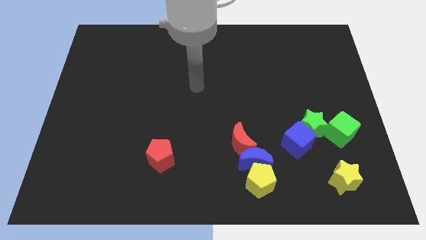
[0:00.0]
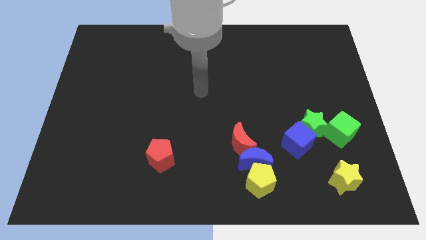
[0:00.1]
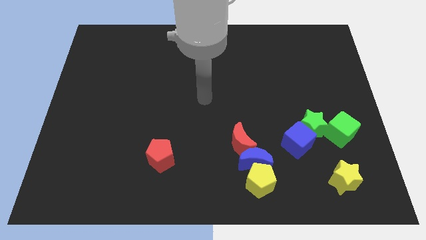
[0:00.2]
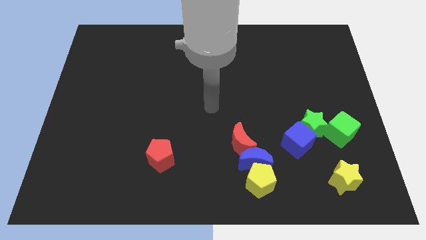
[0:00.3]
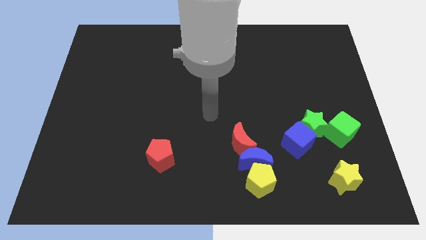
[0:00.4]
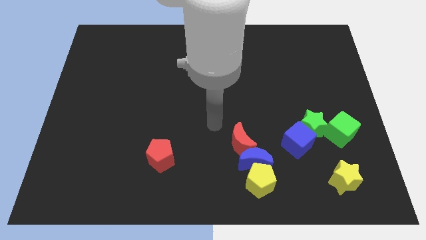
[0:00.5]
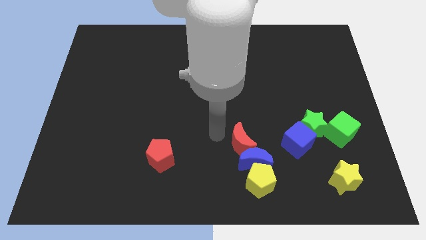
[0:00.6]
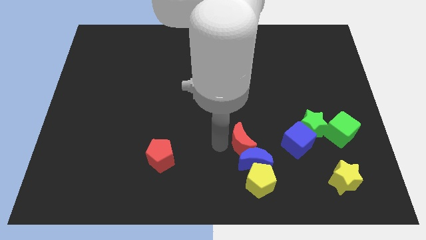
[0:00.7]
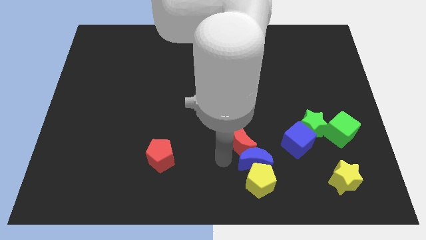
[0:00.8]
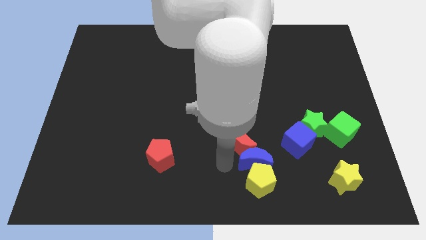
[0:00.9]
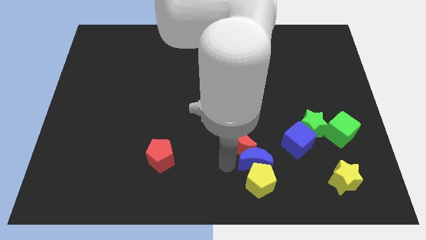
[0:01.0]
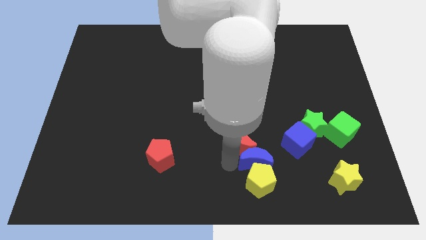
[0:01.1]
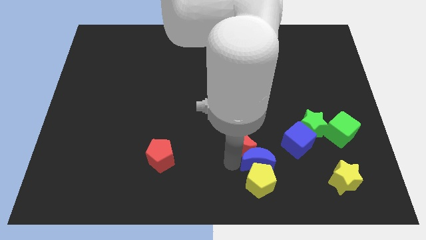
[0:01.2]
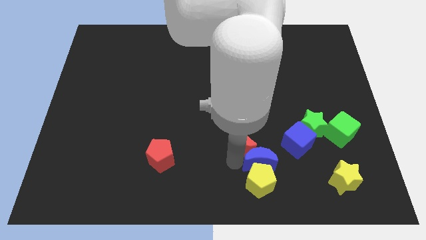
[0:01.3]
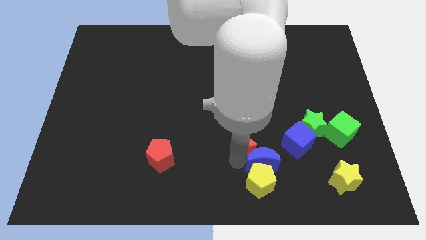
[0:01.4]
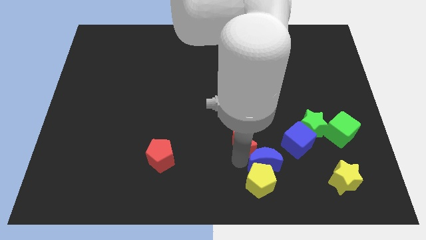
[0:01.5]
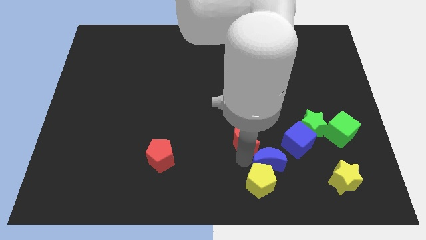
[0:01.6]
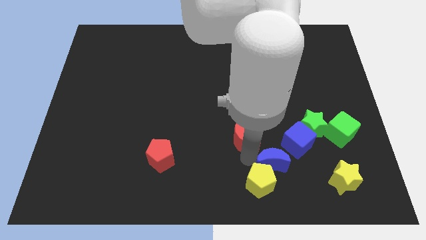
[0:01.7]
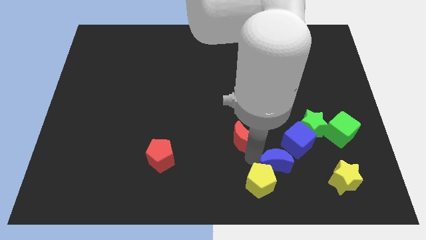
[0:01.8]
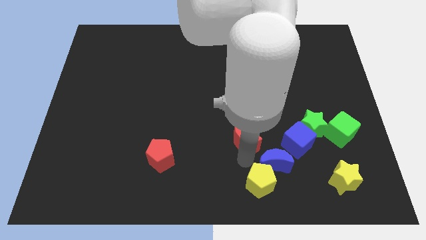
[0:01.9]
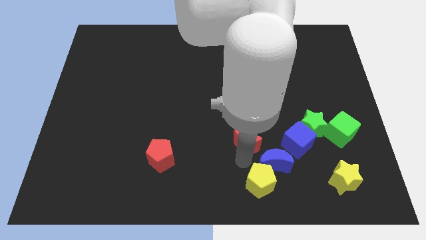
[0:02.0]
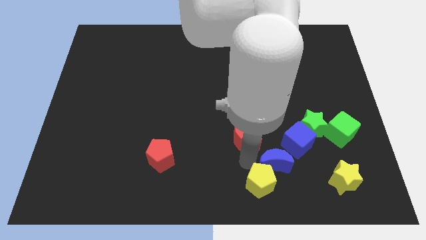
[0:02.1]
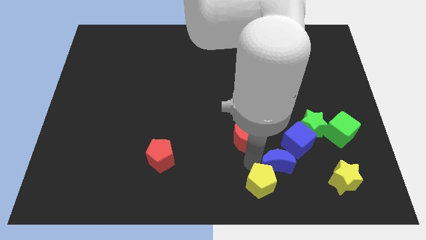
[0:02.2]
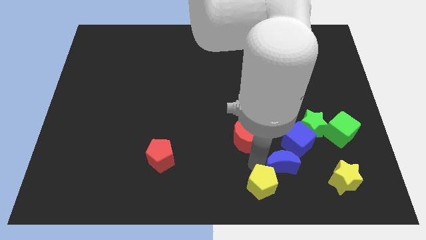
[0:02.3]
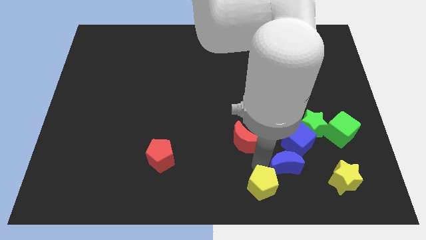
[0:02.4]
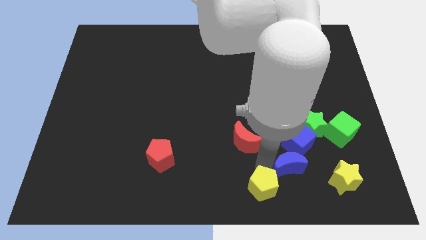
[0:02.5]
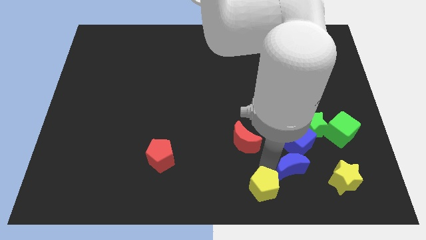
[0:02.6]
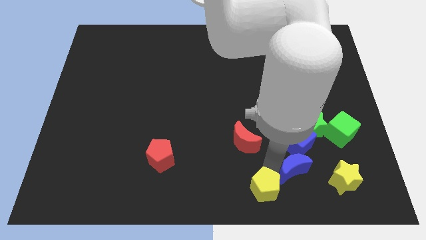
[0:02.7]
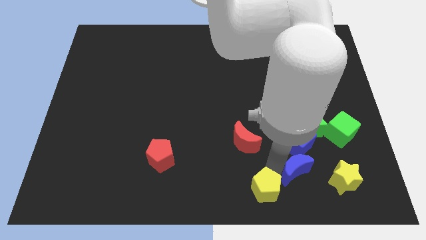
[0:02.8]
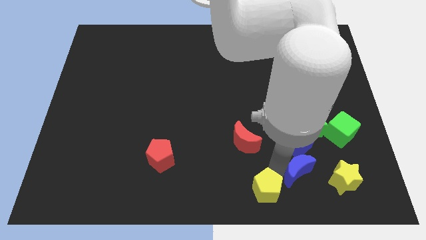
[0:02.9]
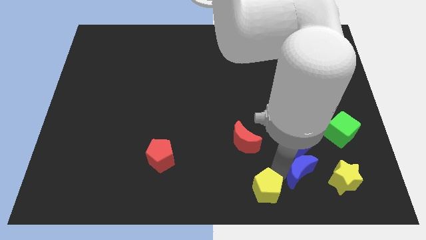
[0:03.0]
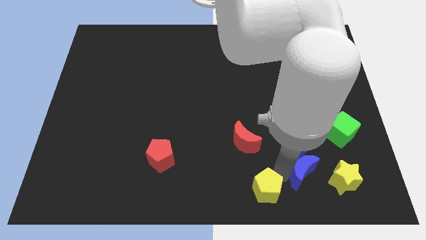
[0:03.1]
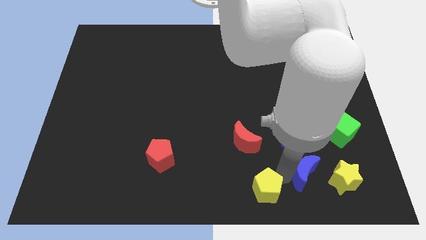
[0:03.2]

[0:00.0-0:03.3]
move the blue moon away from the yellow pentagon and red moon

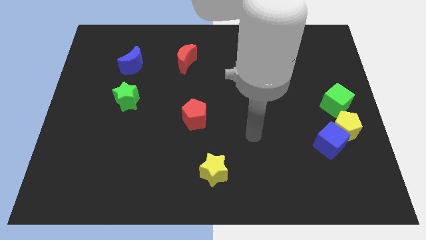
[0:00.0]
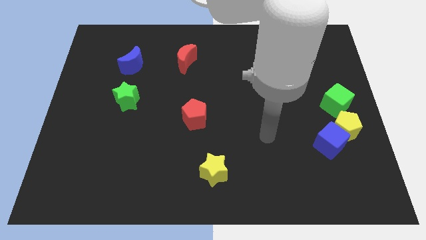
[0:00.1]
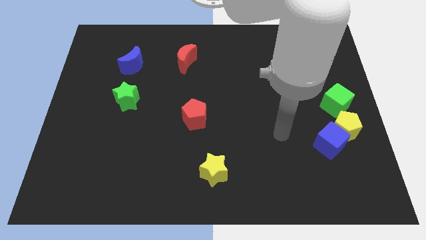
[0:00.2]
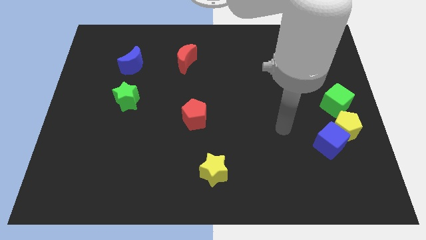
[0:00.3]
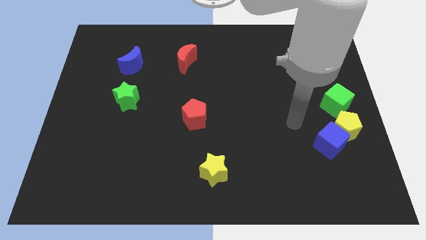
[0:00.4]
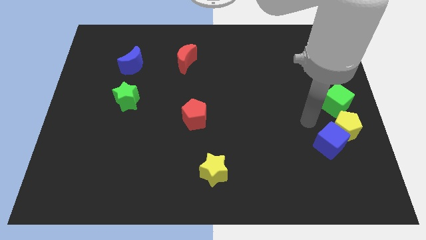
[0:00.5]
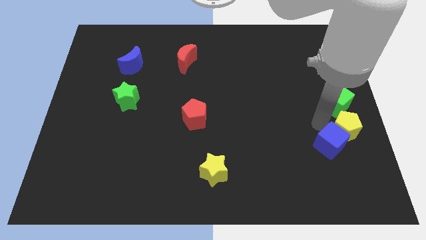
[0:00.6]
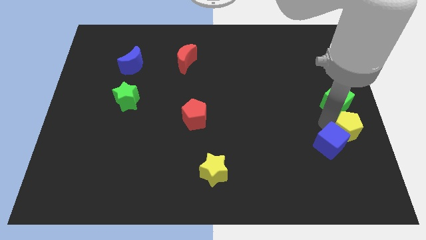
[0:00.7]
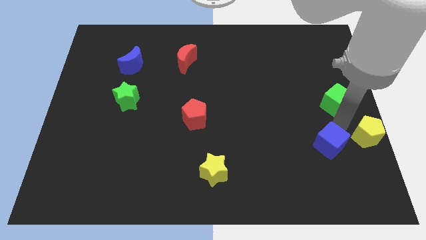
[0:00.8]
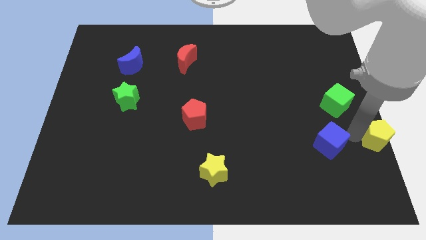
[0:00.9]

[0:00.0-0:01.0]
pull the blue cube apart from the yellow pentagon

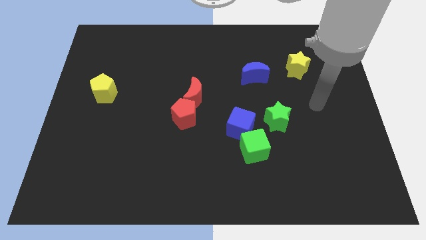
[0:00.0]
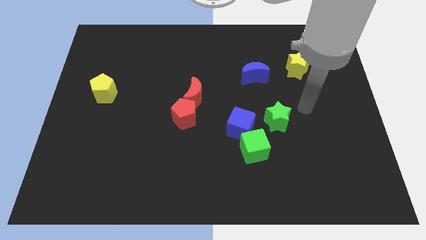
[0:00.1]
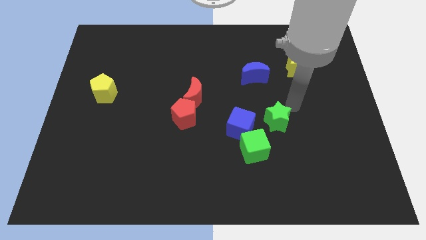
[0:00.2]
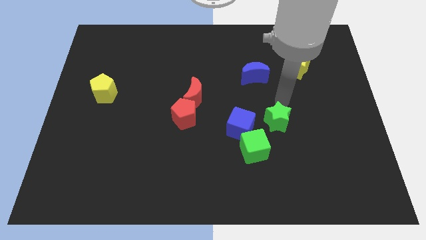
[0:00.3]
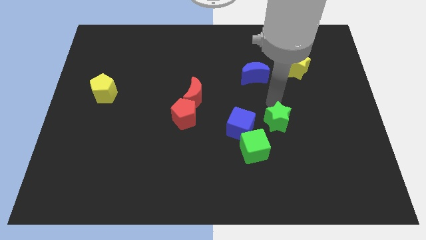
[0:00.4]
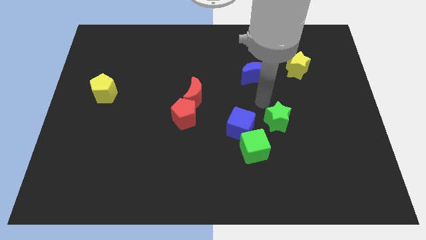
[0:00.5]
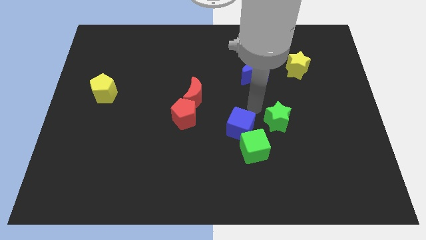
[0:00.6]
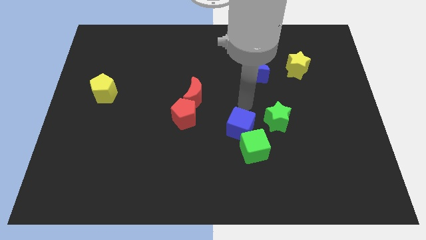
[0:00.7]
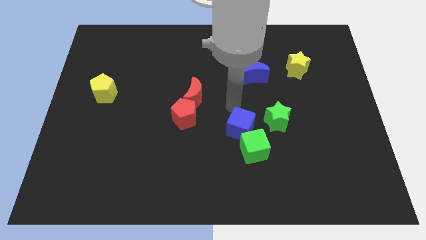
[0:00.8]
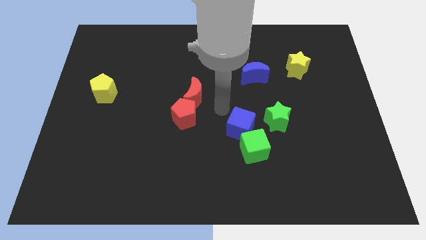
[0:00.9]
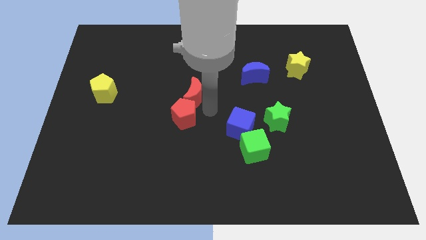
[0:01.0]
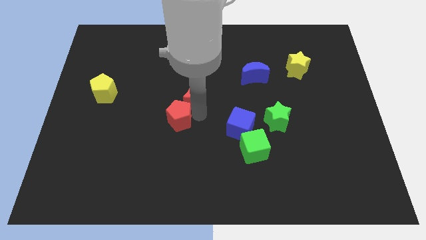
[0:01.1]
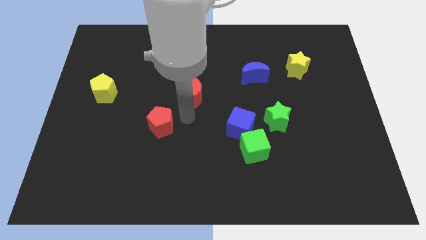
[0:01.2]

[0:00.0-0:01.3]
move the red moon away from the red pentagon

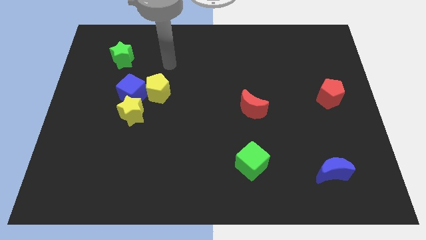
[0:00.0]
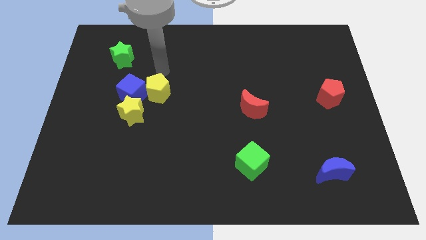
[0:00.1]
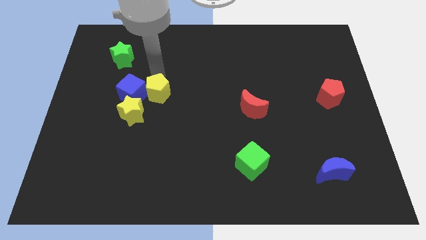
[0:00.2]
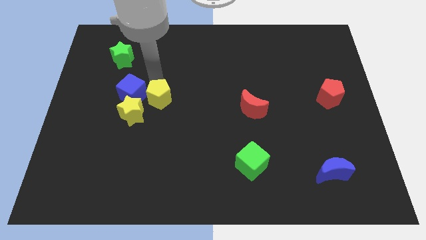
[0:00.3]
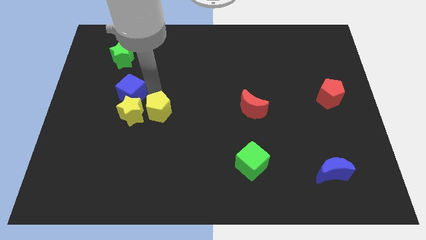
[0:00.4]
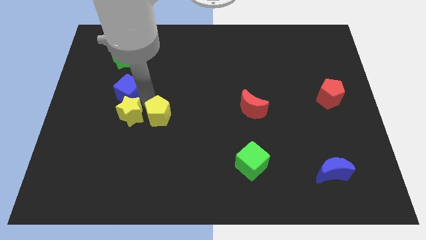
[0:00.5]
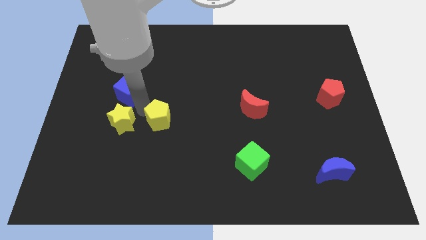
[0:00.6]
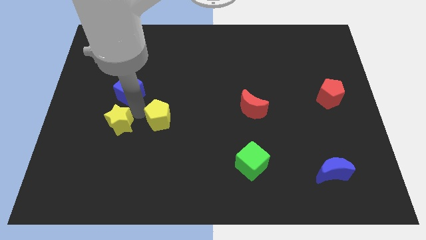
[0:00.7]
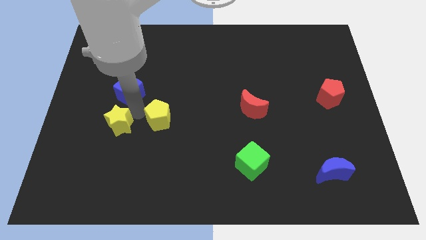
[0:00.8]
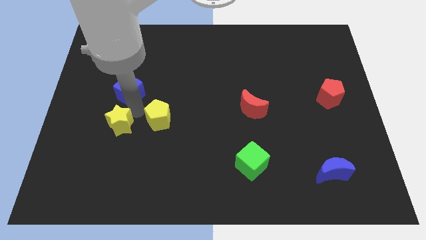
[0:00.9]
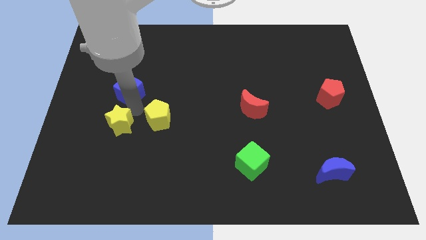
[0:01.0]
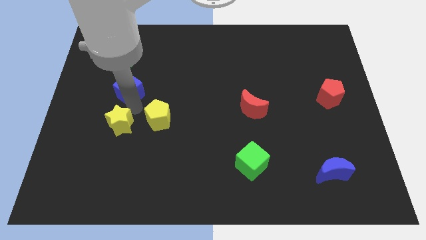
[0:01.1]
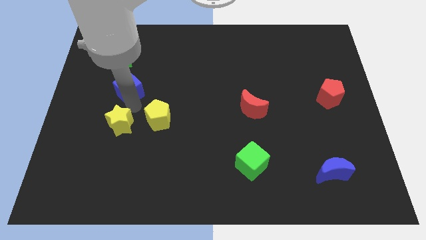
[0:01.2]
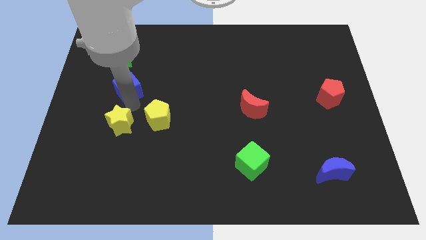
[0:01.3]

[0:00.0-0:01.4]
pull the blue cube apart from the yellow pentagon and yellow star

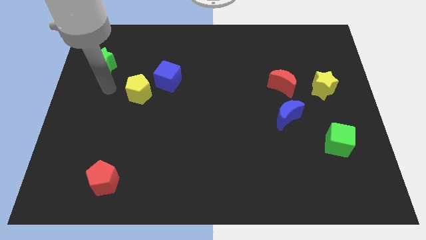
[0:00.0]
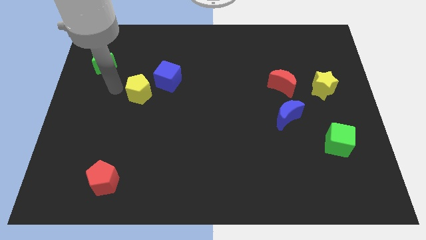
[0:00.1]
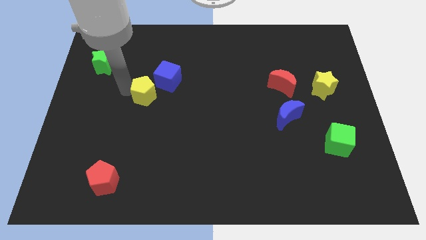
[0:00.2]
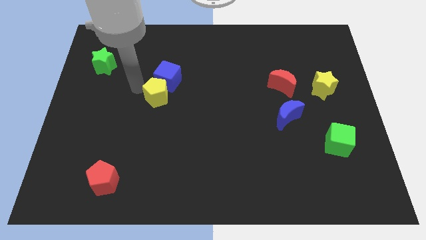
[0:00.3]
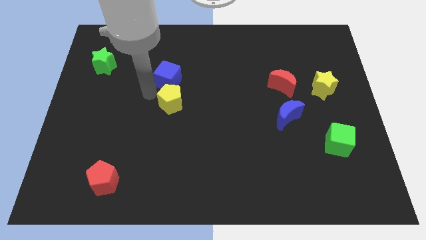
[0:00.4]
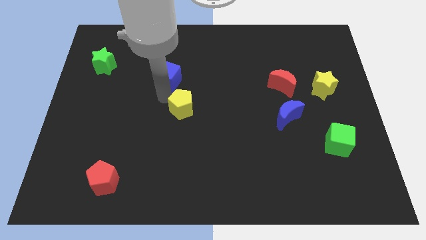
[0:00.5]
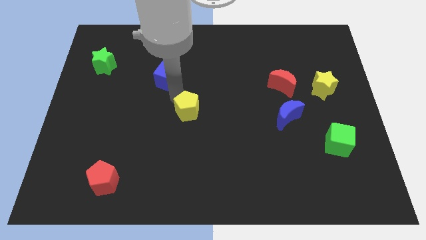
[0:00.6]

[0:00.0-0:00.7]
move the blue cube away from the yellow pentagon

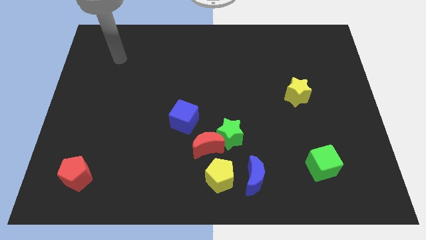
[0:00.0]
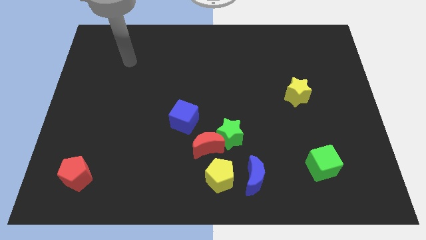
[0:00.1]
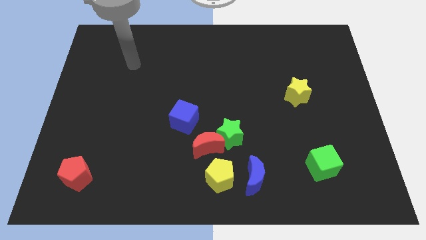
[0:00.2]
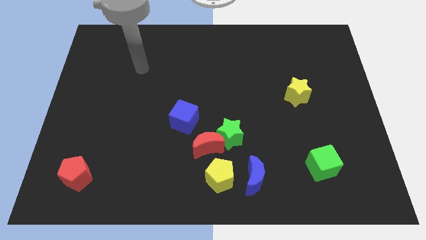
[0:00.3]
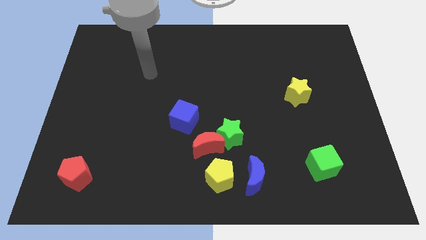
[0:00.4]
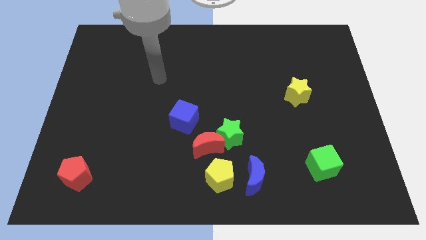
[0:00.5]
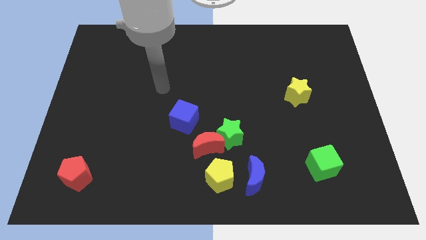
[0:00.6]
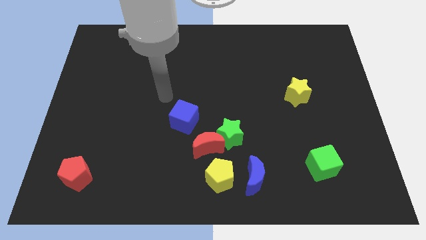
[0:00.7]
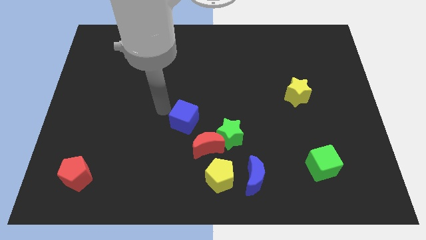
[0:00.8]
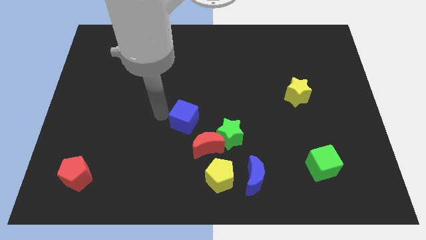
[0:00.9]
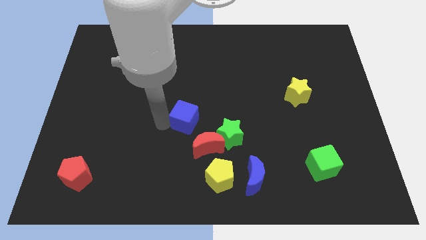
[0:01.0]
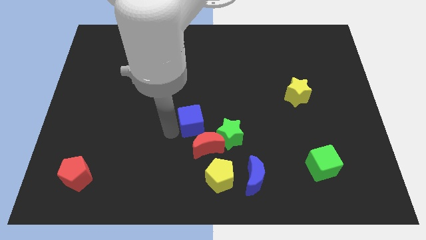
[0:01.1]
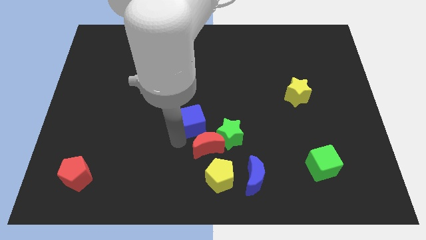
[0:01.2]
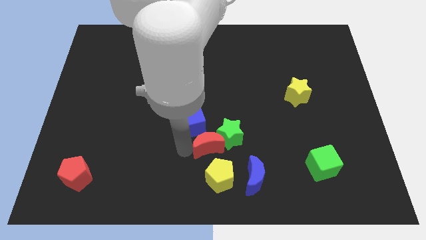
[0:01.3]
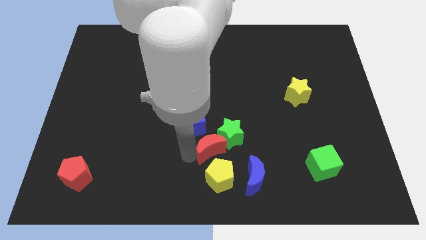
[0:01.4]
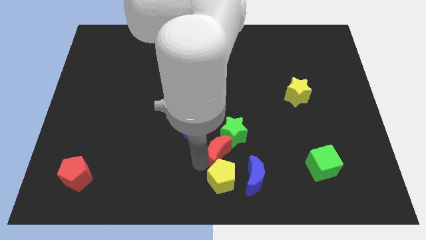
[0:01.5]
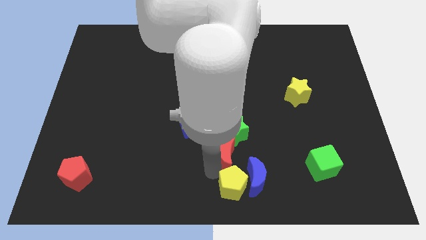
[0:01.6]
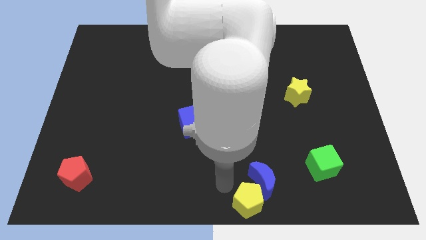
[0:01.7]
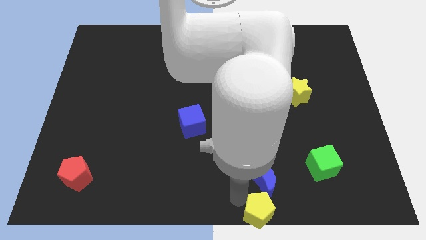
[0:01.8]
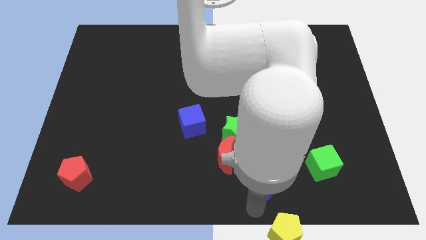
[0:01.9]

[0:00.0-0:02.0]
separate the blue moon from the yellow pentagon
